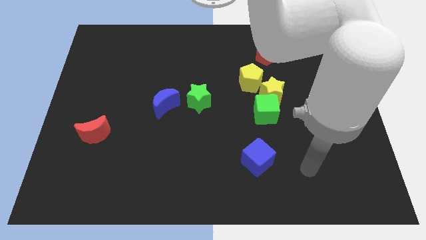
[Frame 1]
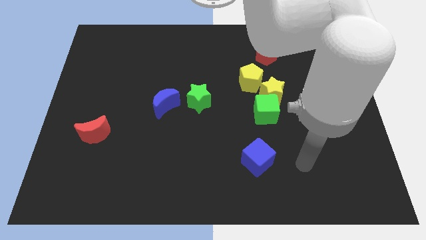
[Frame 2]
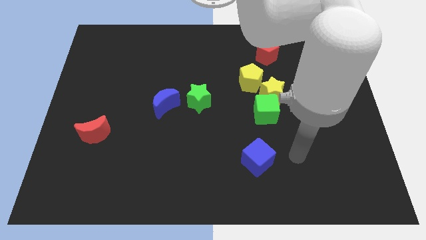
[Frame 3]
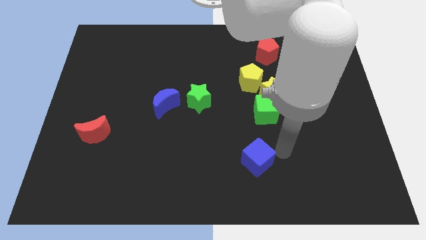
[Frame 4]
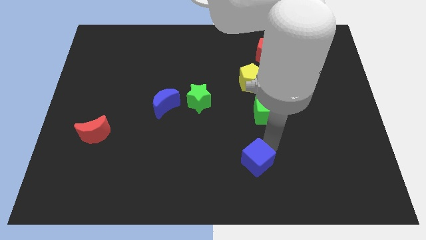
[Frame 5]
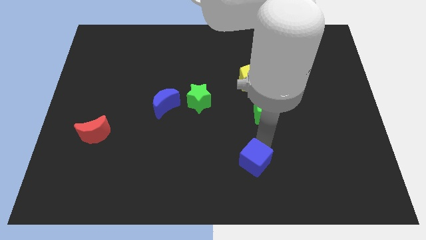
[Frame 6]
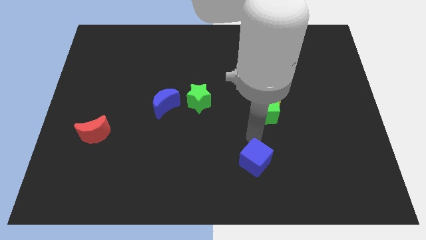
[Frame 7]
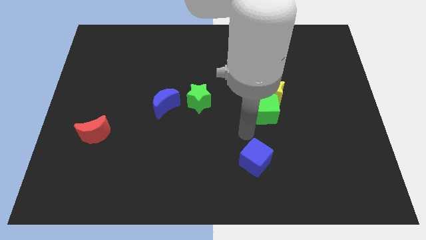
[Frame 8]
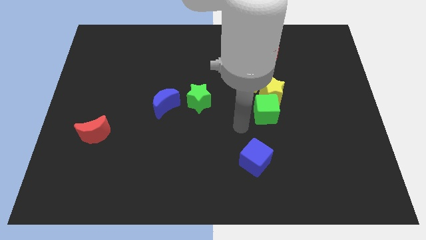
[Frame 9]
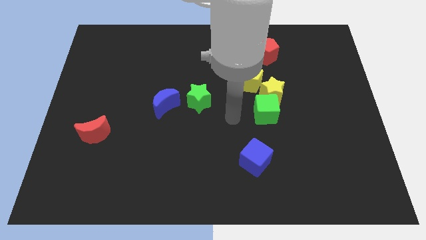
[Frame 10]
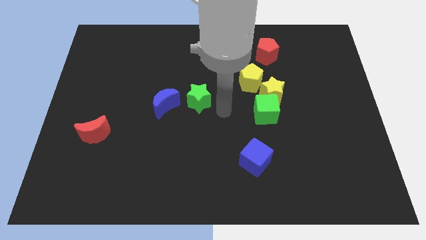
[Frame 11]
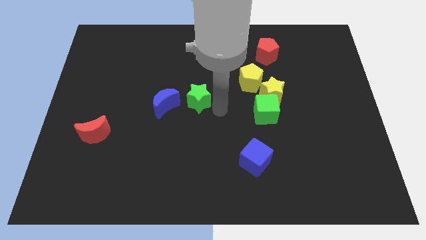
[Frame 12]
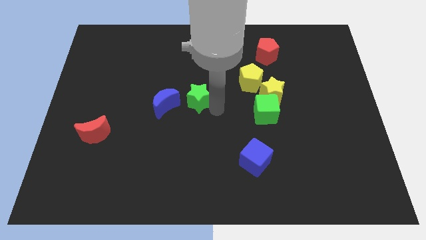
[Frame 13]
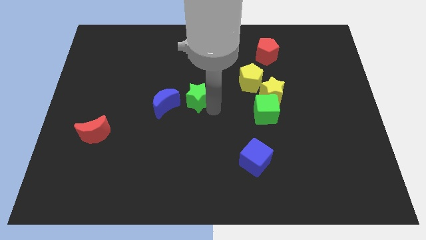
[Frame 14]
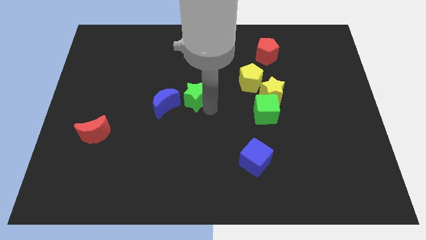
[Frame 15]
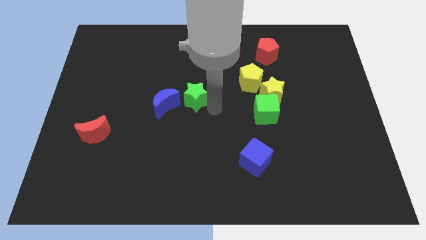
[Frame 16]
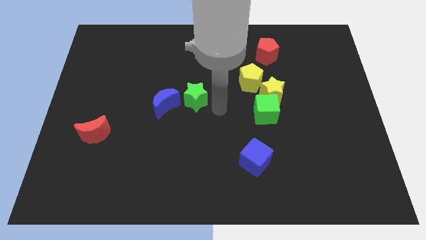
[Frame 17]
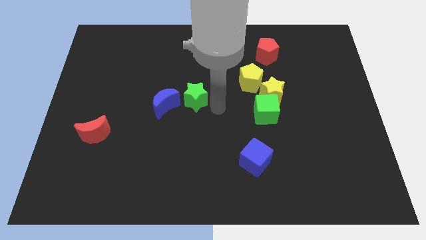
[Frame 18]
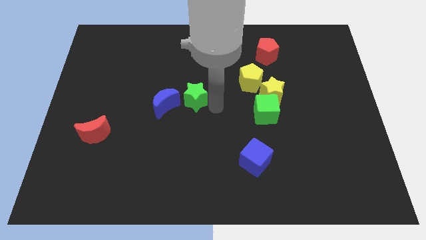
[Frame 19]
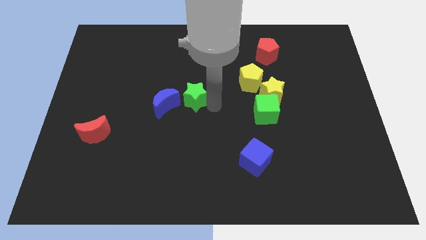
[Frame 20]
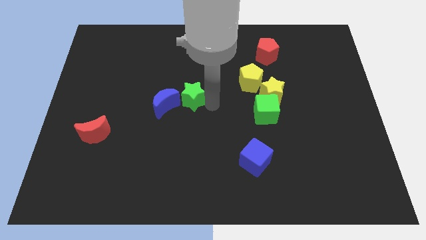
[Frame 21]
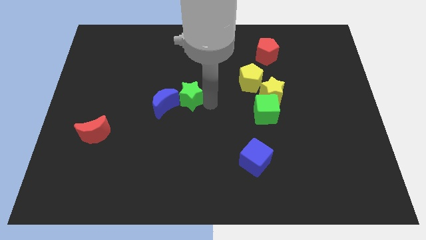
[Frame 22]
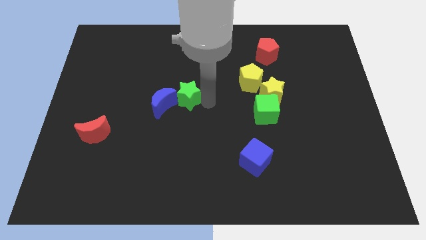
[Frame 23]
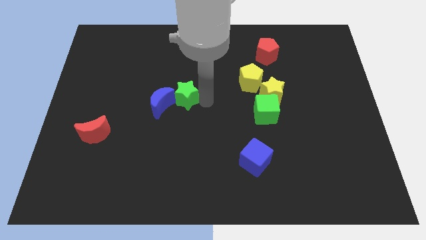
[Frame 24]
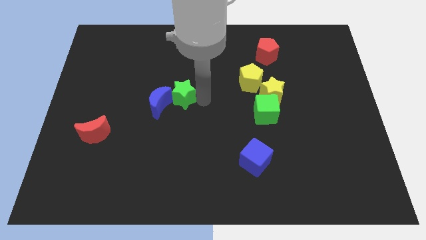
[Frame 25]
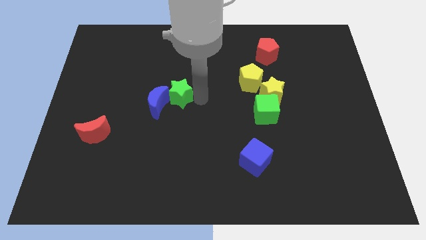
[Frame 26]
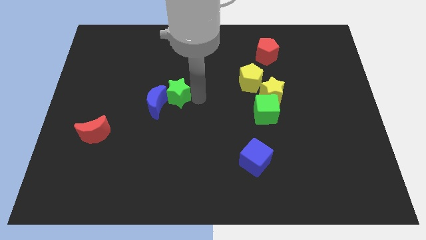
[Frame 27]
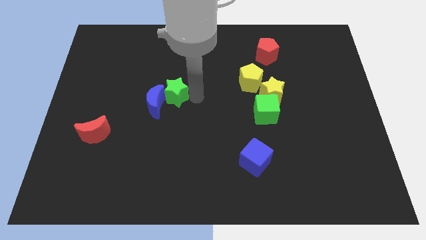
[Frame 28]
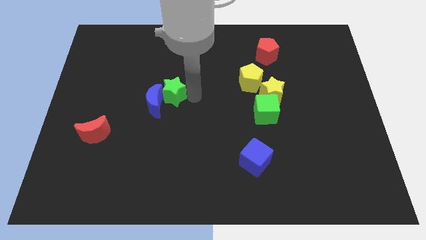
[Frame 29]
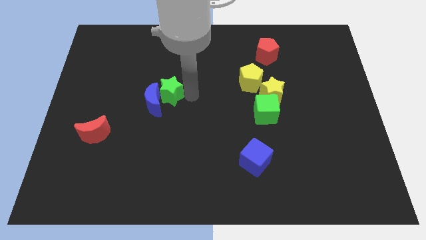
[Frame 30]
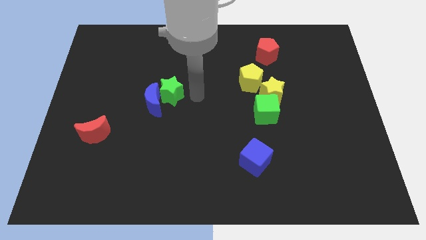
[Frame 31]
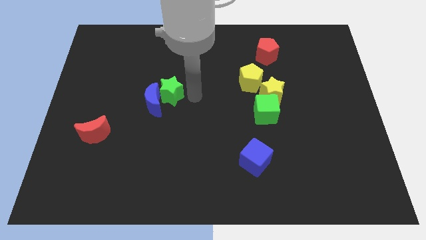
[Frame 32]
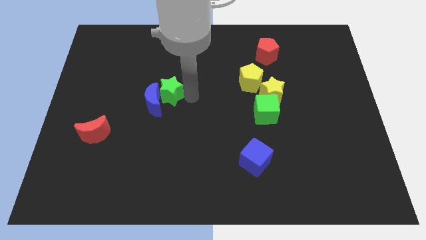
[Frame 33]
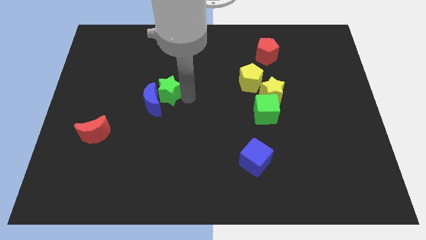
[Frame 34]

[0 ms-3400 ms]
slightly push the green star left

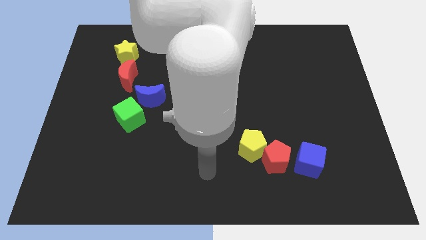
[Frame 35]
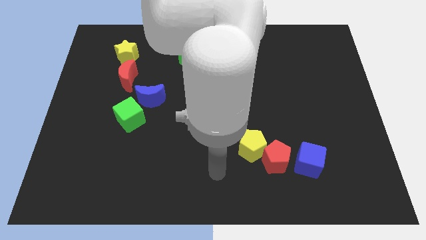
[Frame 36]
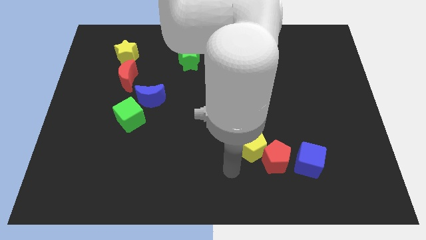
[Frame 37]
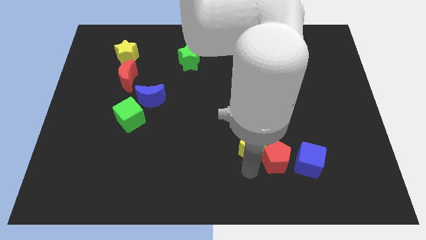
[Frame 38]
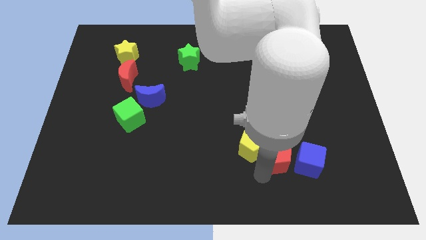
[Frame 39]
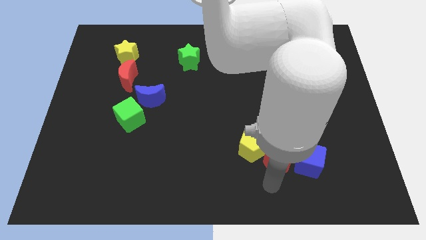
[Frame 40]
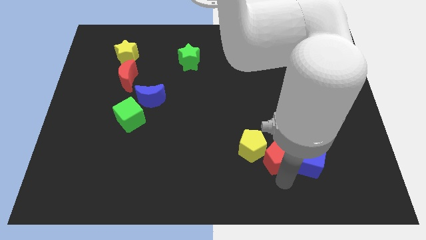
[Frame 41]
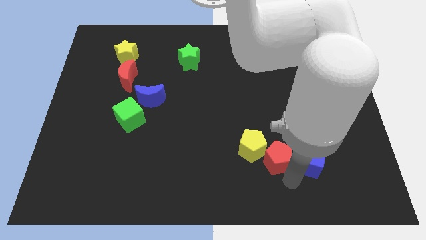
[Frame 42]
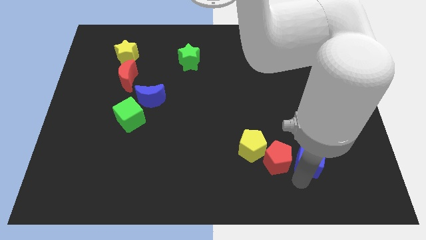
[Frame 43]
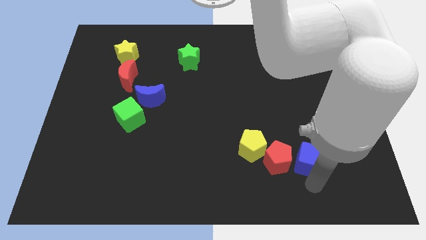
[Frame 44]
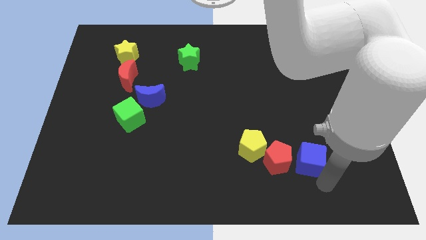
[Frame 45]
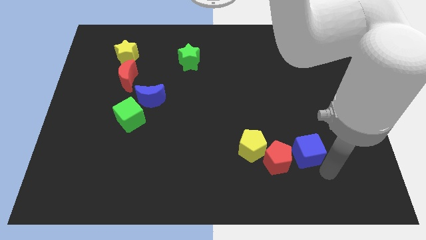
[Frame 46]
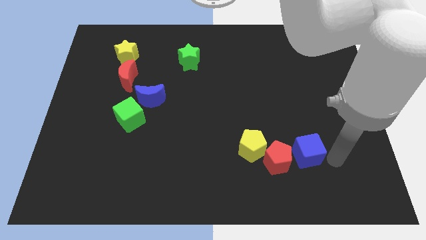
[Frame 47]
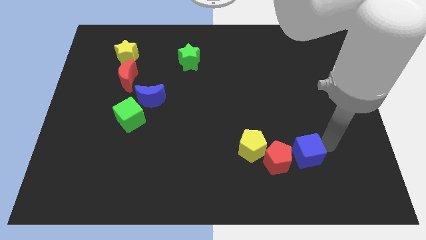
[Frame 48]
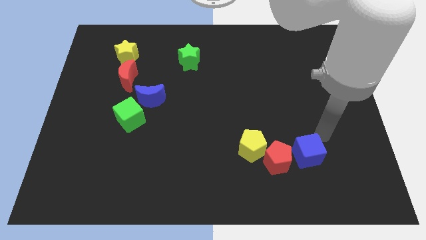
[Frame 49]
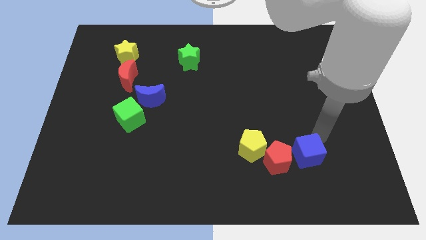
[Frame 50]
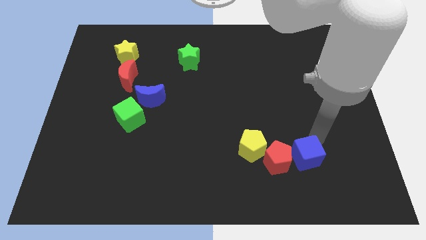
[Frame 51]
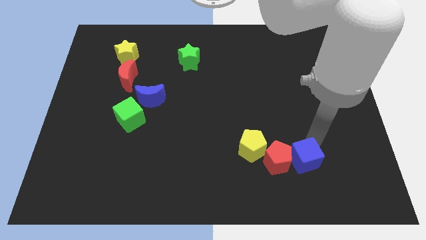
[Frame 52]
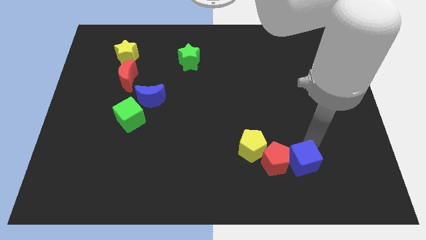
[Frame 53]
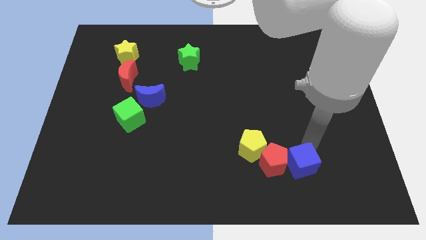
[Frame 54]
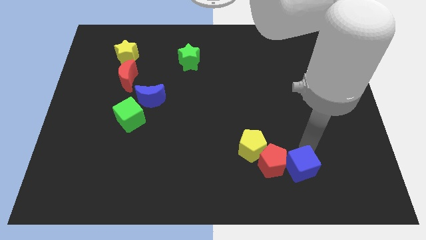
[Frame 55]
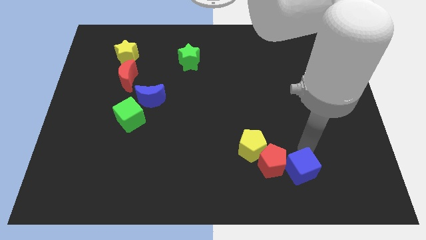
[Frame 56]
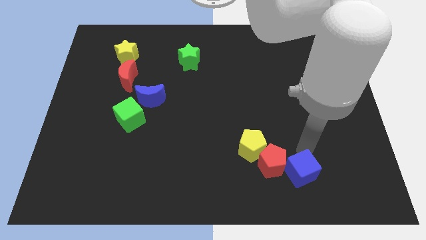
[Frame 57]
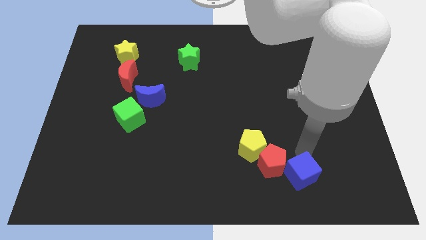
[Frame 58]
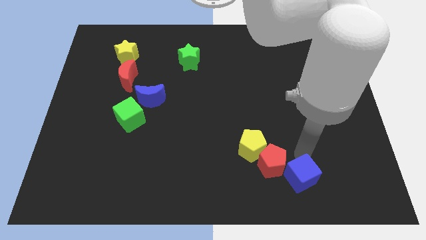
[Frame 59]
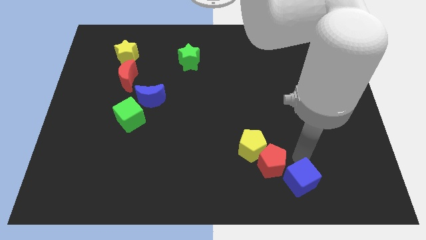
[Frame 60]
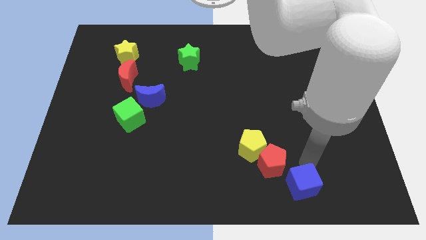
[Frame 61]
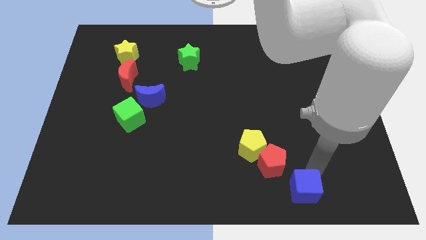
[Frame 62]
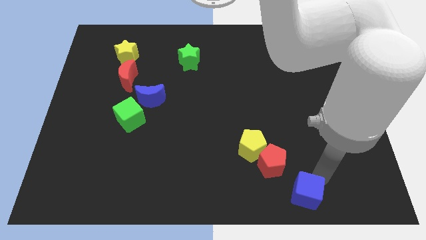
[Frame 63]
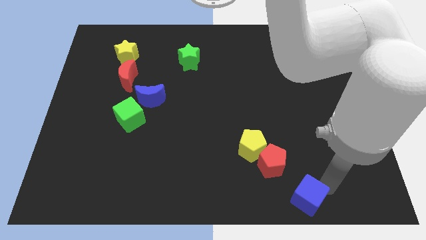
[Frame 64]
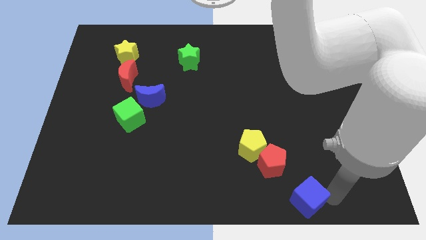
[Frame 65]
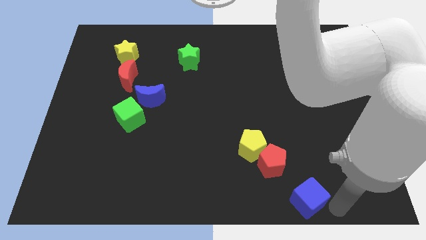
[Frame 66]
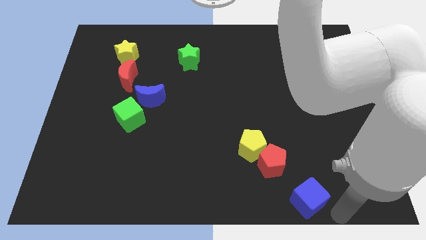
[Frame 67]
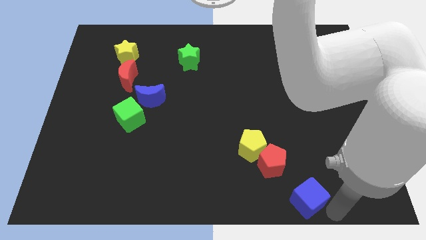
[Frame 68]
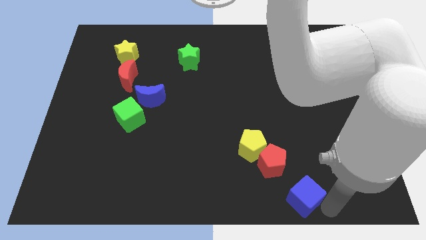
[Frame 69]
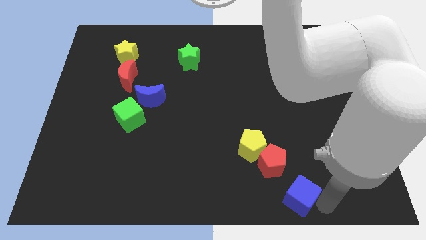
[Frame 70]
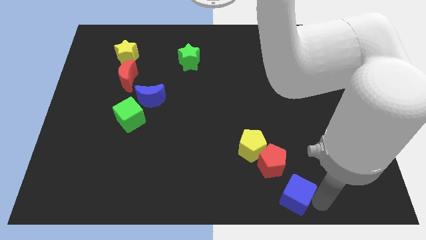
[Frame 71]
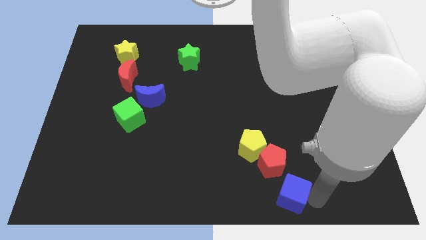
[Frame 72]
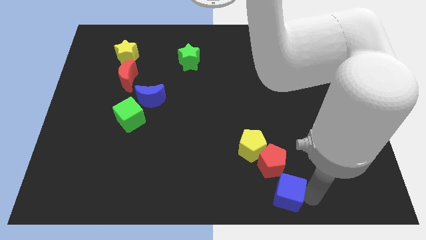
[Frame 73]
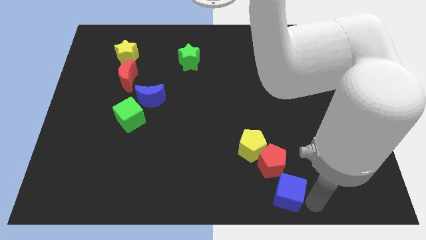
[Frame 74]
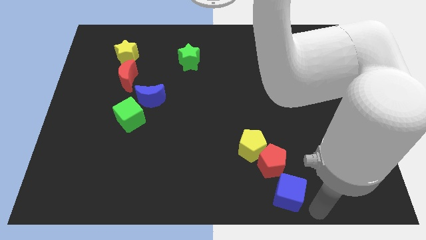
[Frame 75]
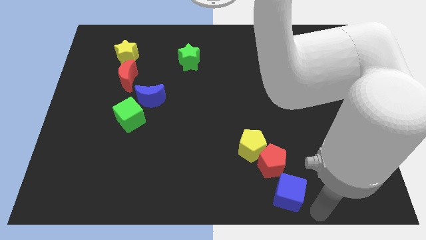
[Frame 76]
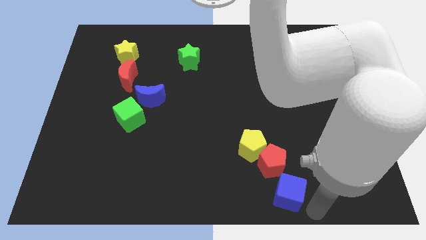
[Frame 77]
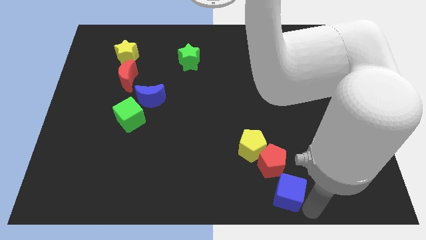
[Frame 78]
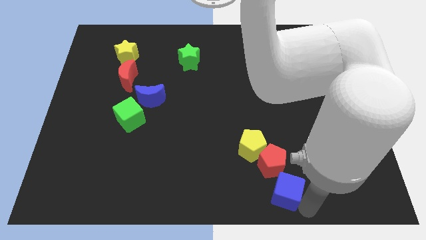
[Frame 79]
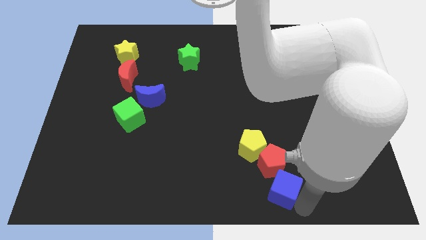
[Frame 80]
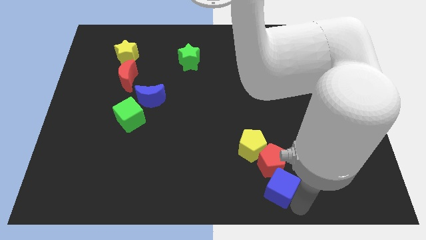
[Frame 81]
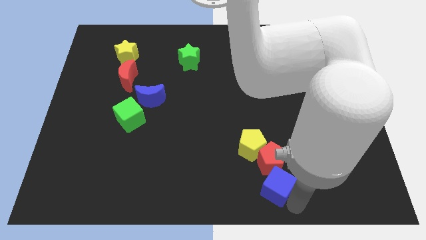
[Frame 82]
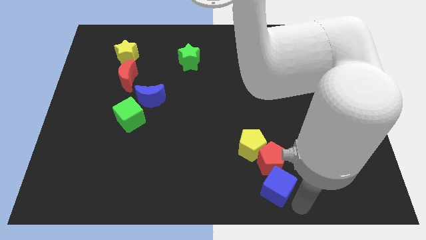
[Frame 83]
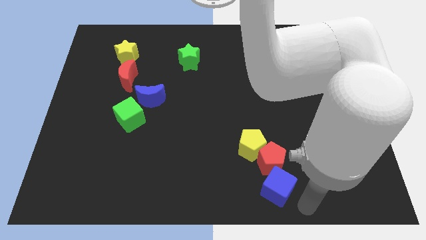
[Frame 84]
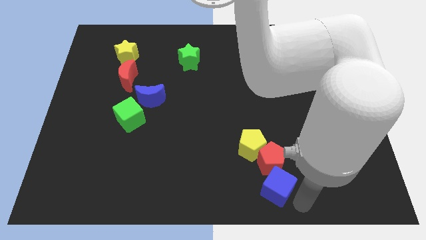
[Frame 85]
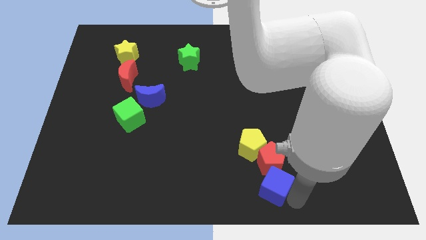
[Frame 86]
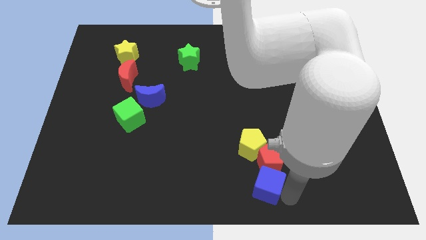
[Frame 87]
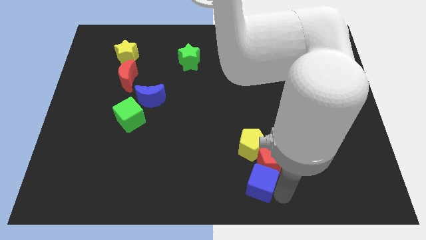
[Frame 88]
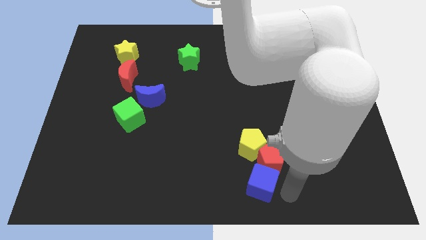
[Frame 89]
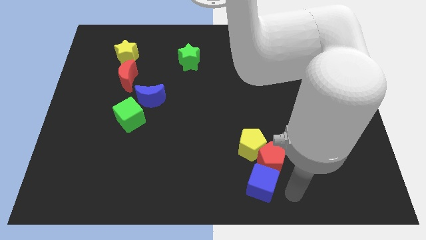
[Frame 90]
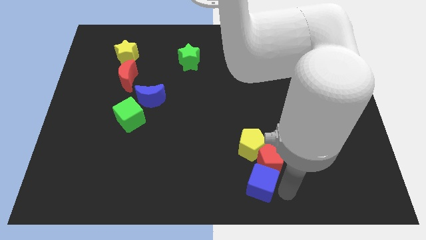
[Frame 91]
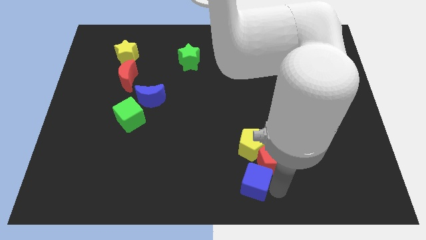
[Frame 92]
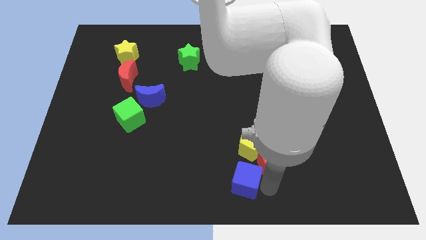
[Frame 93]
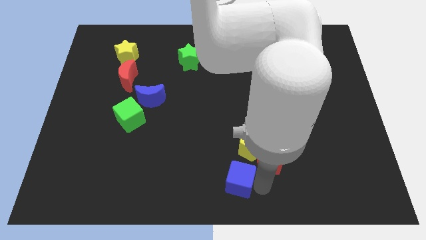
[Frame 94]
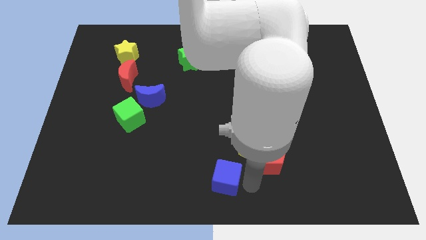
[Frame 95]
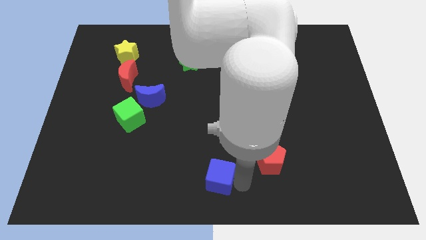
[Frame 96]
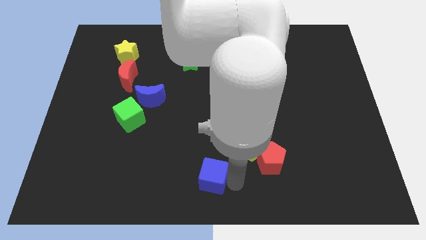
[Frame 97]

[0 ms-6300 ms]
move the blue cube left
